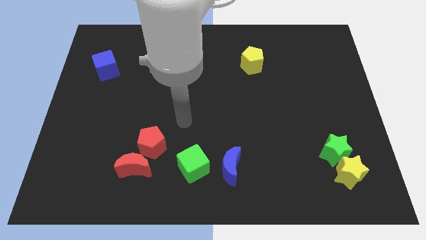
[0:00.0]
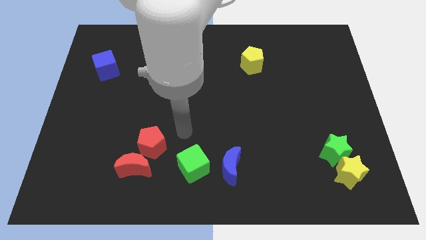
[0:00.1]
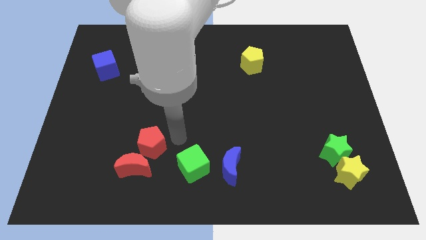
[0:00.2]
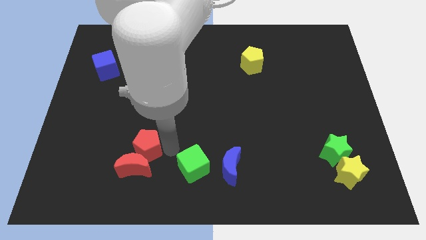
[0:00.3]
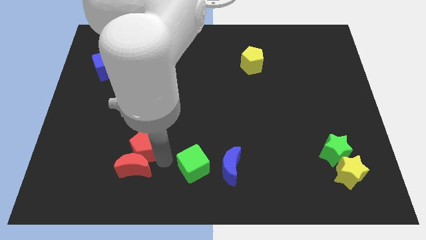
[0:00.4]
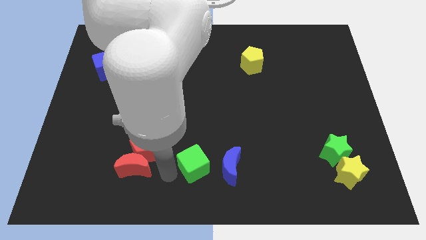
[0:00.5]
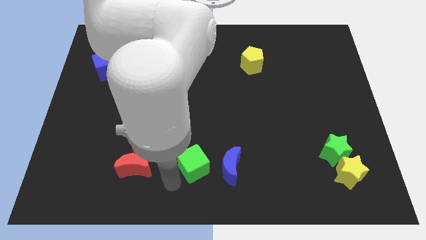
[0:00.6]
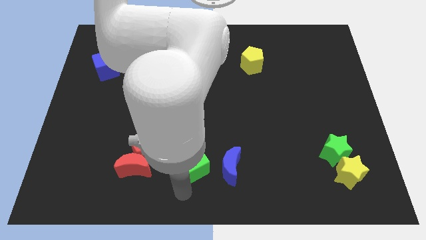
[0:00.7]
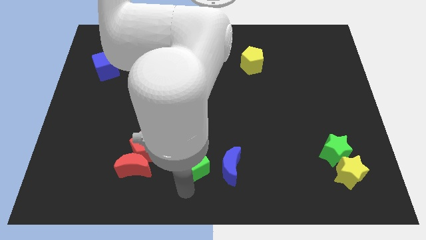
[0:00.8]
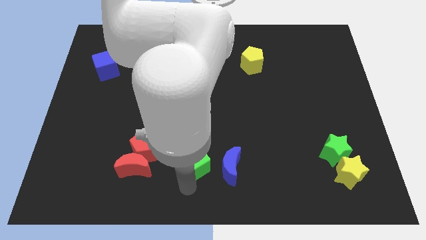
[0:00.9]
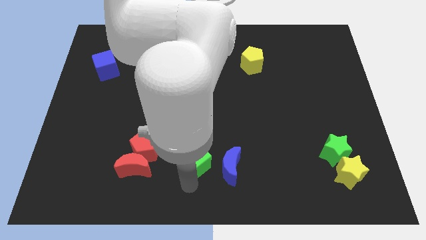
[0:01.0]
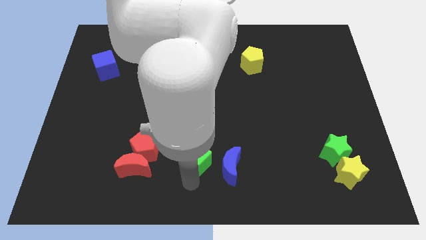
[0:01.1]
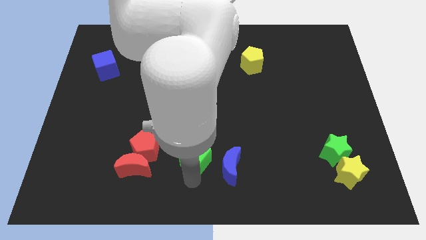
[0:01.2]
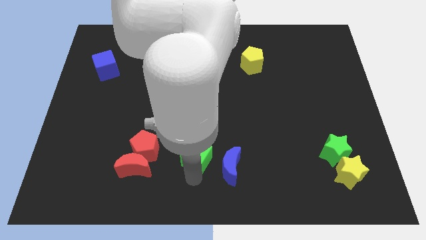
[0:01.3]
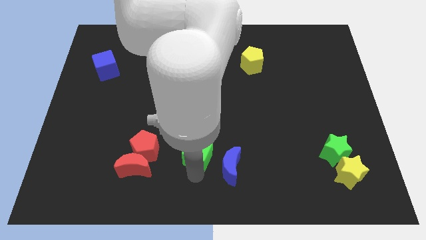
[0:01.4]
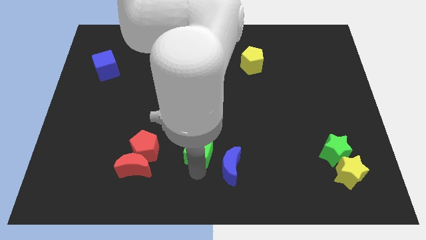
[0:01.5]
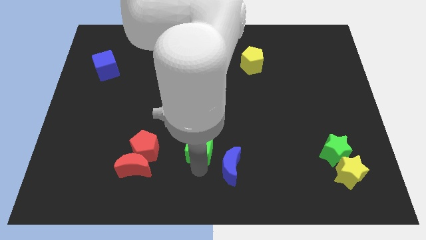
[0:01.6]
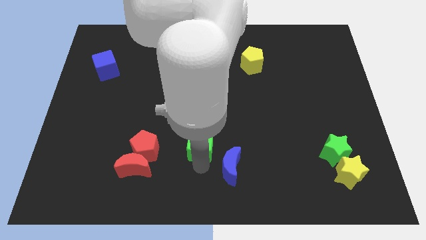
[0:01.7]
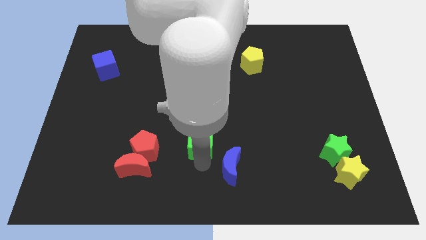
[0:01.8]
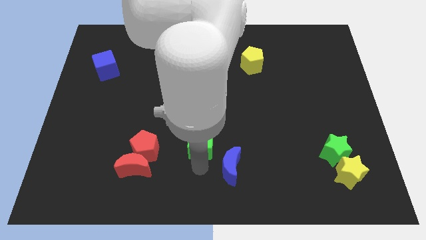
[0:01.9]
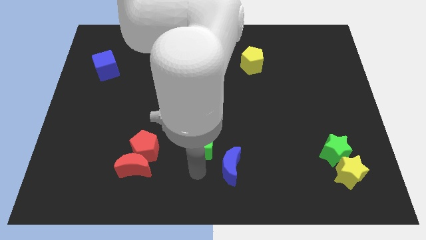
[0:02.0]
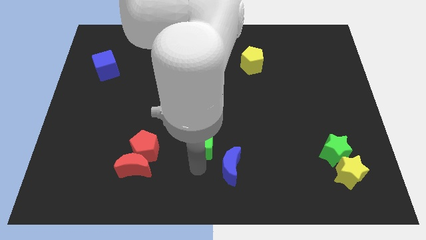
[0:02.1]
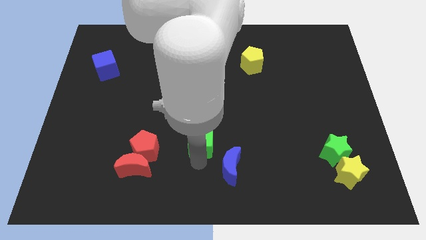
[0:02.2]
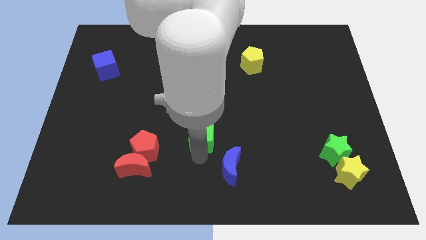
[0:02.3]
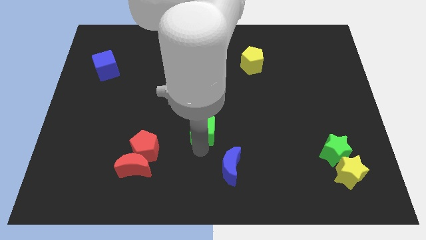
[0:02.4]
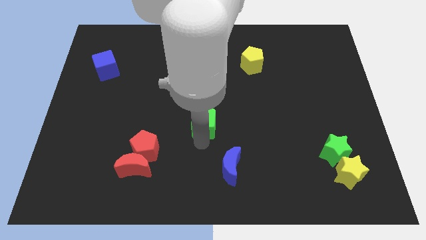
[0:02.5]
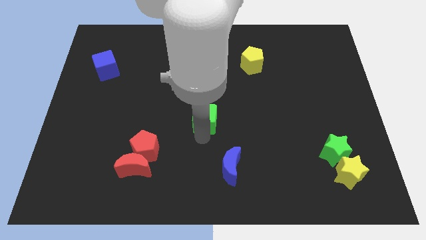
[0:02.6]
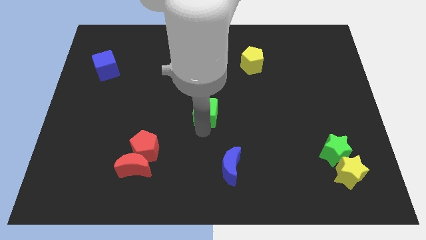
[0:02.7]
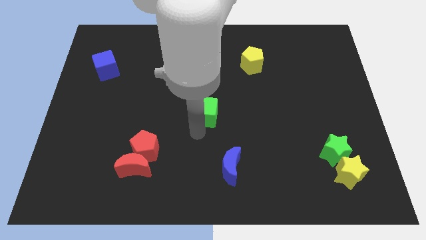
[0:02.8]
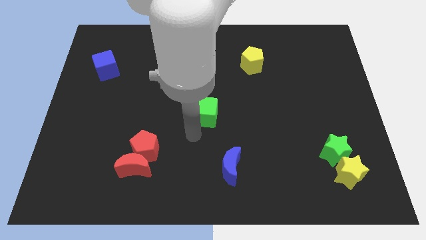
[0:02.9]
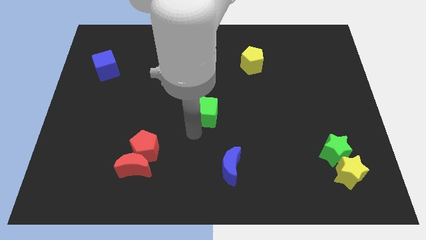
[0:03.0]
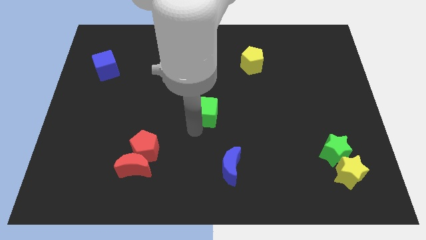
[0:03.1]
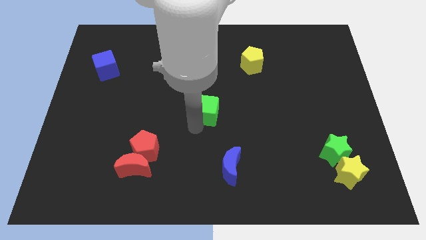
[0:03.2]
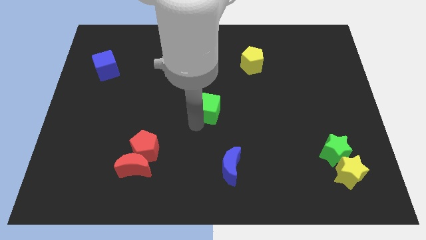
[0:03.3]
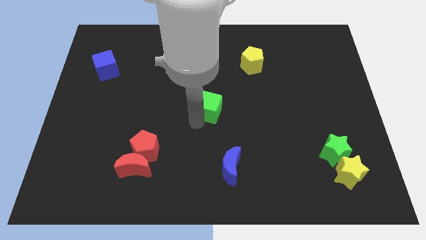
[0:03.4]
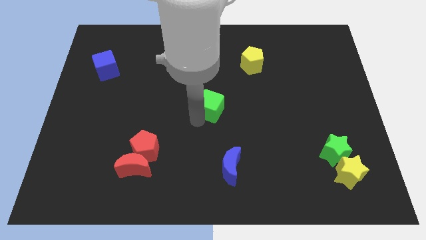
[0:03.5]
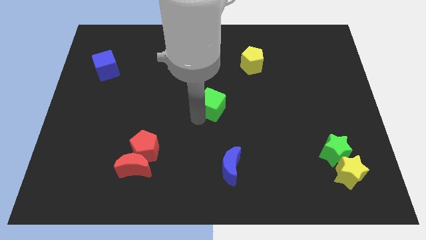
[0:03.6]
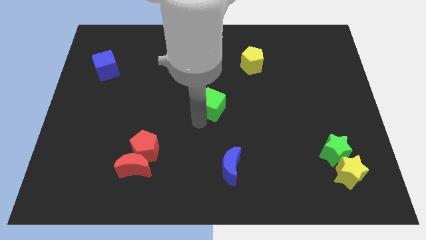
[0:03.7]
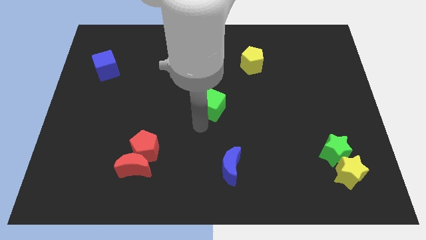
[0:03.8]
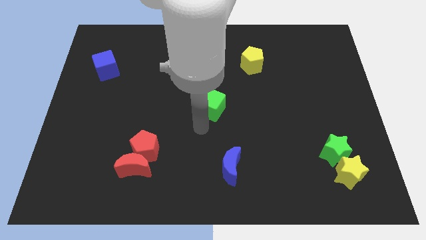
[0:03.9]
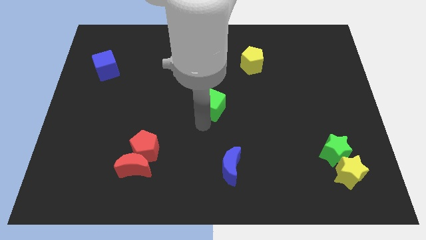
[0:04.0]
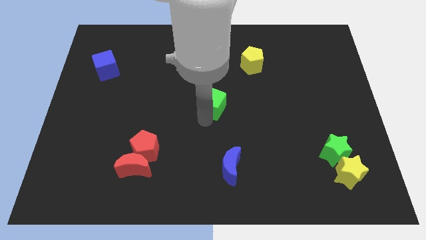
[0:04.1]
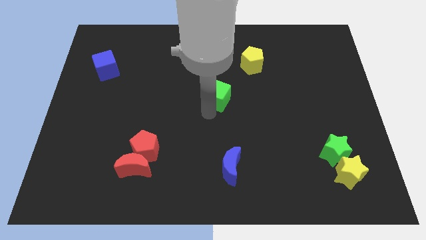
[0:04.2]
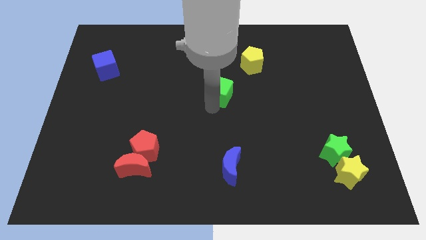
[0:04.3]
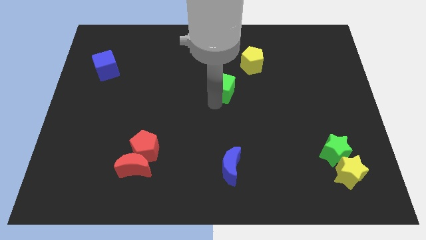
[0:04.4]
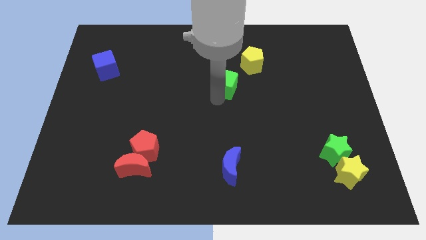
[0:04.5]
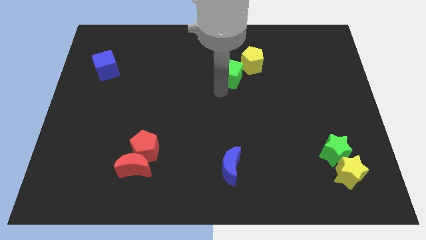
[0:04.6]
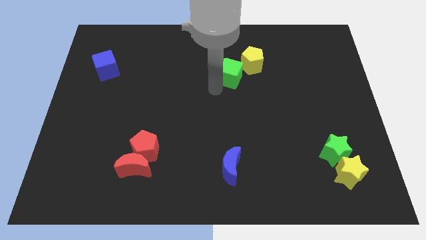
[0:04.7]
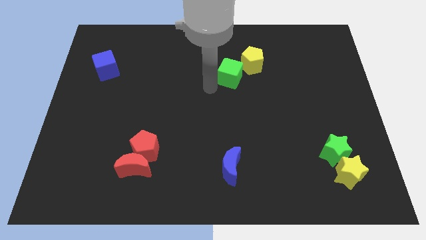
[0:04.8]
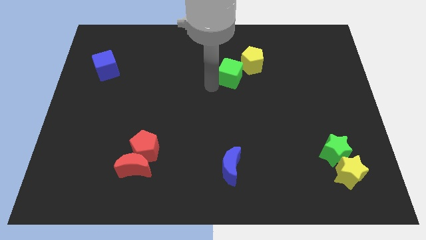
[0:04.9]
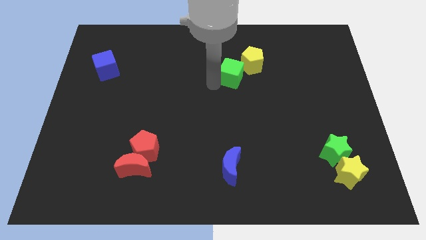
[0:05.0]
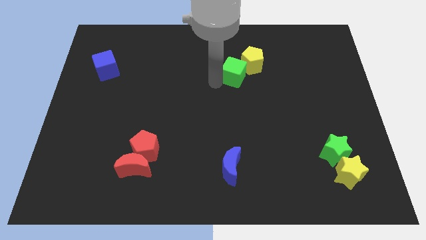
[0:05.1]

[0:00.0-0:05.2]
put the green cube close to the yellow pentagon

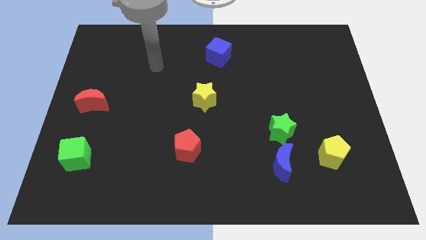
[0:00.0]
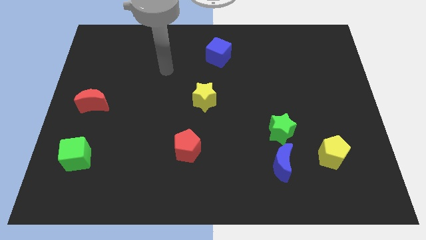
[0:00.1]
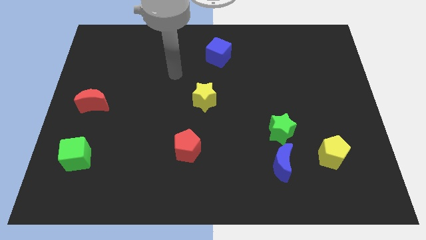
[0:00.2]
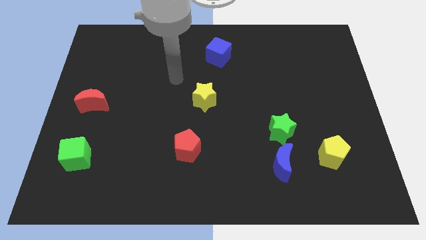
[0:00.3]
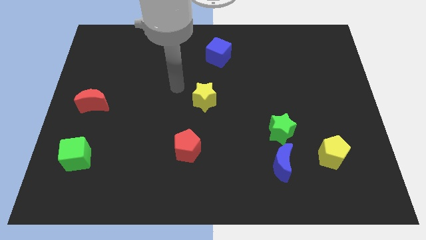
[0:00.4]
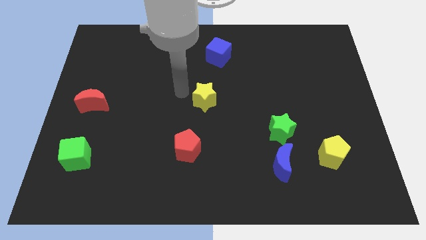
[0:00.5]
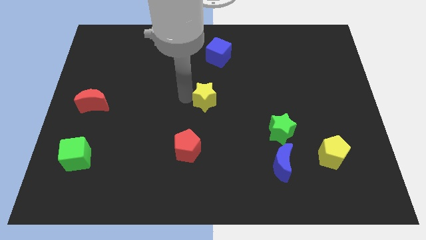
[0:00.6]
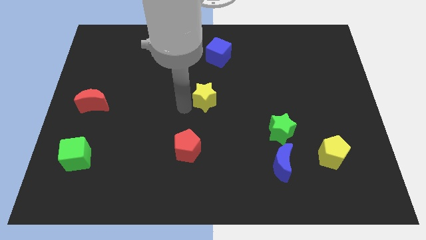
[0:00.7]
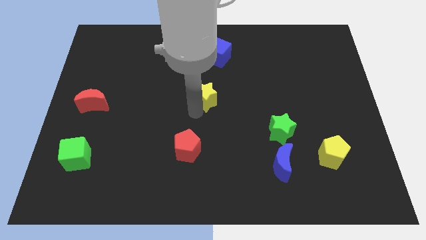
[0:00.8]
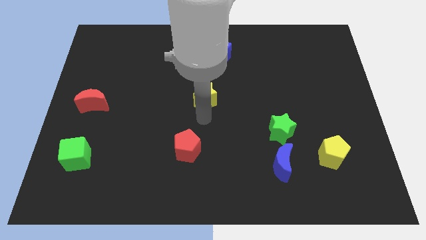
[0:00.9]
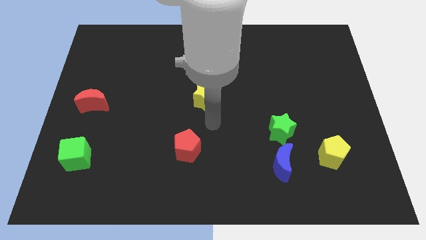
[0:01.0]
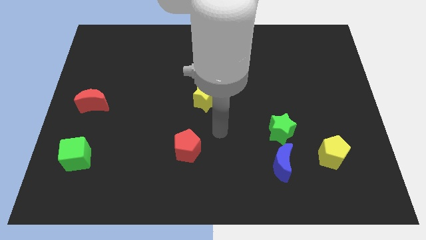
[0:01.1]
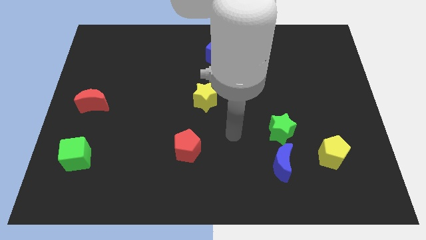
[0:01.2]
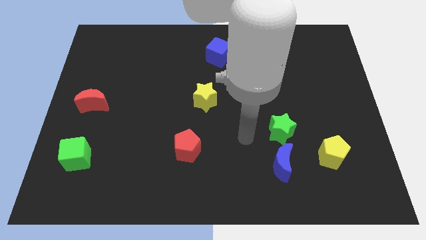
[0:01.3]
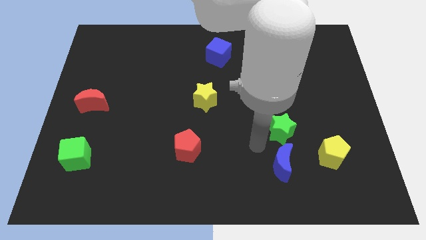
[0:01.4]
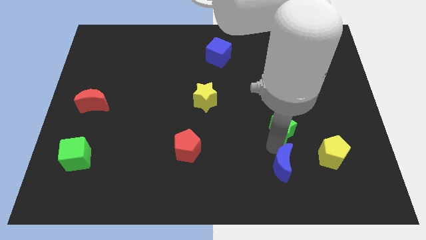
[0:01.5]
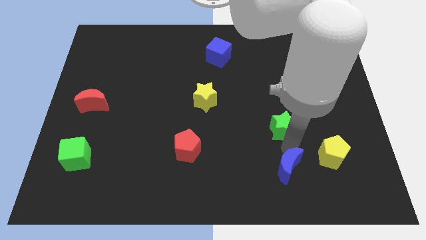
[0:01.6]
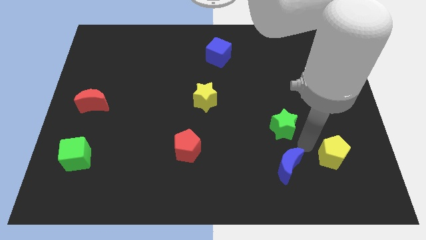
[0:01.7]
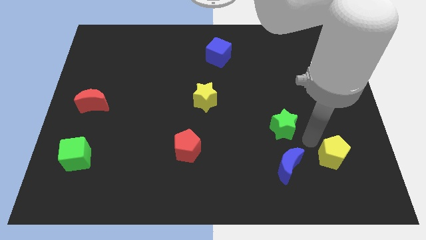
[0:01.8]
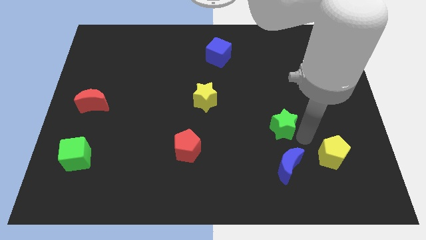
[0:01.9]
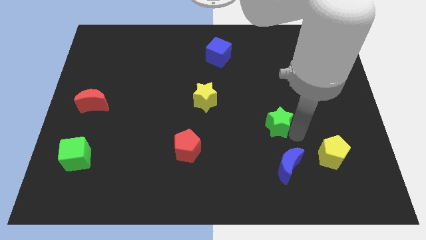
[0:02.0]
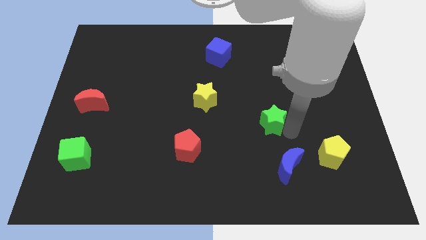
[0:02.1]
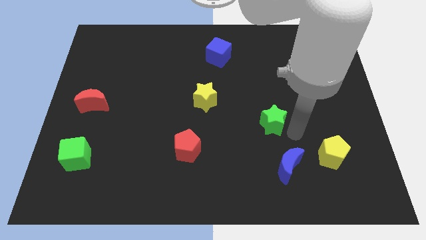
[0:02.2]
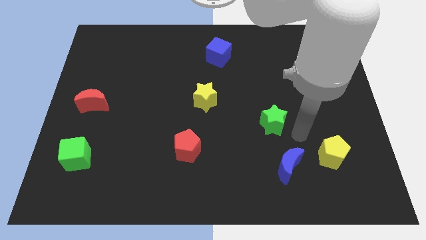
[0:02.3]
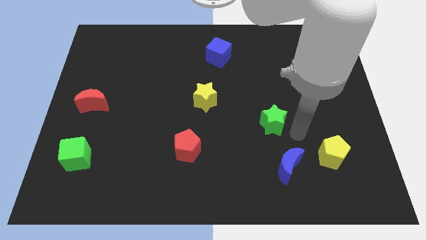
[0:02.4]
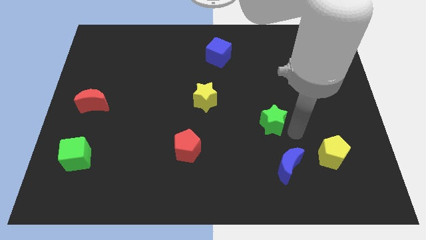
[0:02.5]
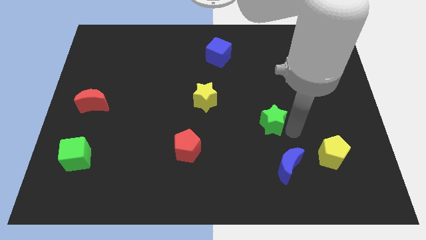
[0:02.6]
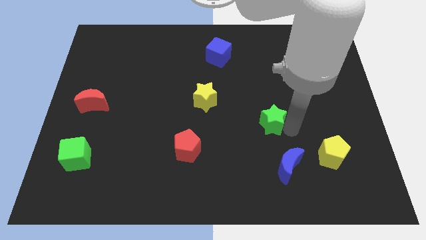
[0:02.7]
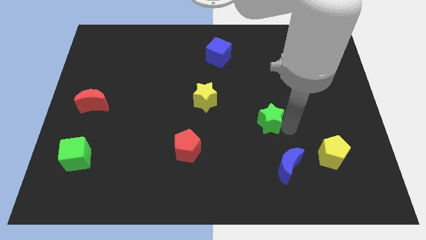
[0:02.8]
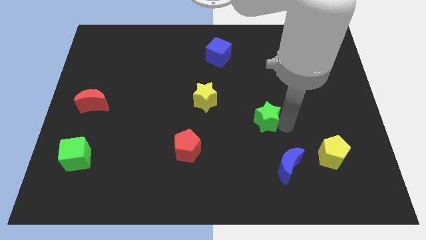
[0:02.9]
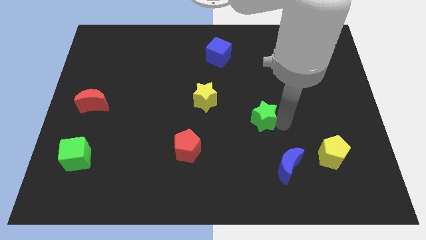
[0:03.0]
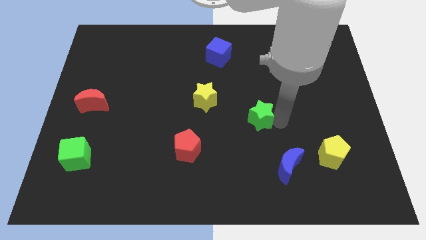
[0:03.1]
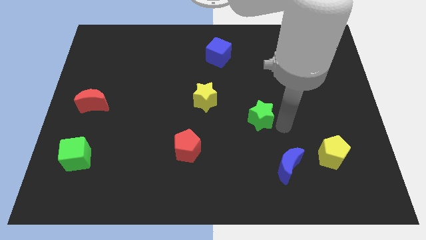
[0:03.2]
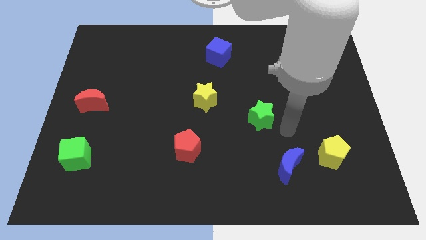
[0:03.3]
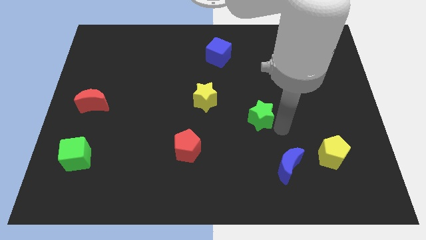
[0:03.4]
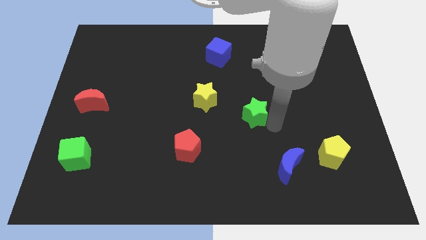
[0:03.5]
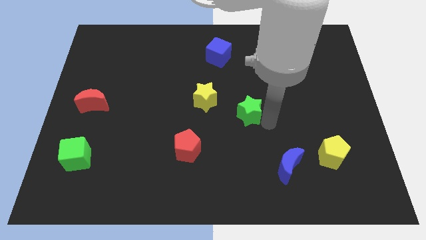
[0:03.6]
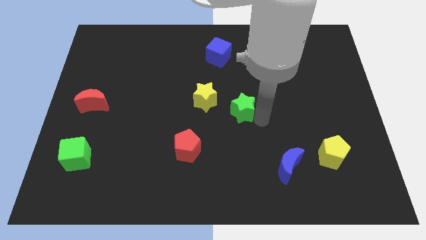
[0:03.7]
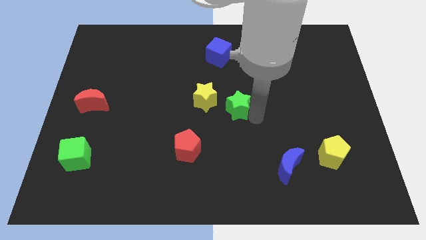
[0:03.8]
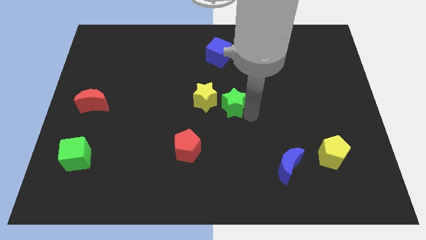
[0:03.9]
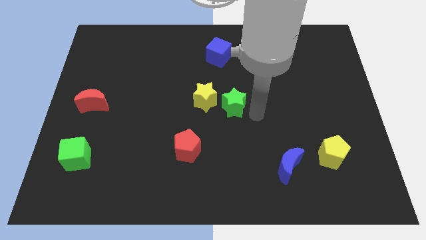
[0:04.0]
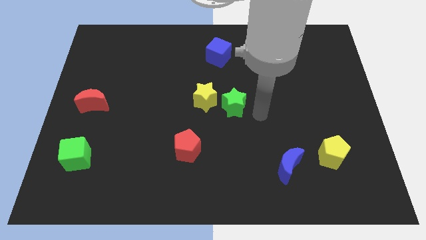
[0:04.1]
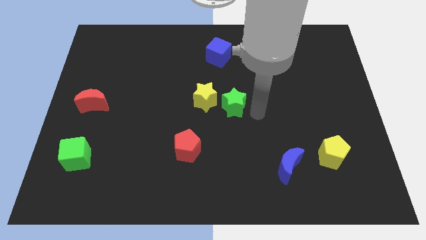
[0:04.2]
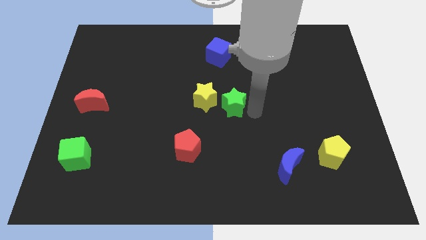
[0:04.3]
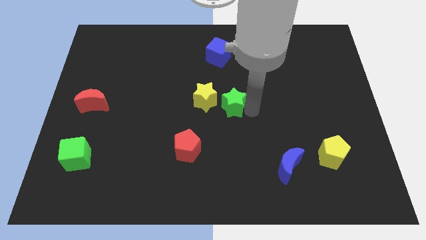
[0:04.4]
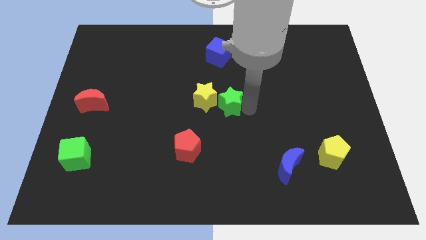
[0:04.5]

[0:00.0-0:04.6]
push the green star close to the yellow star
